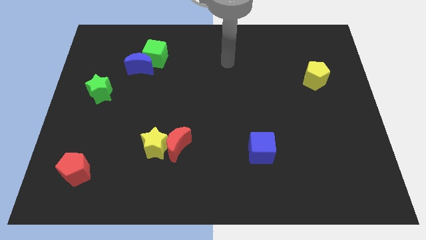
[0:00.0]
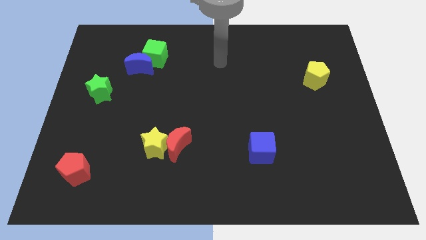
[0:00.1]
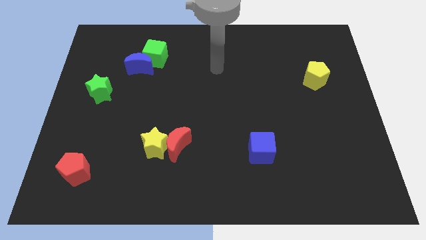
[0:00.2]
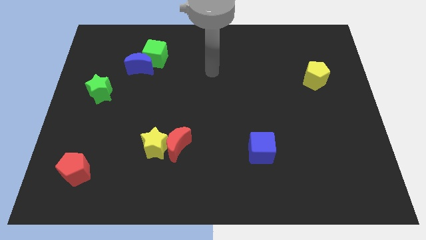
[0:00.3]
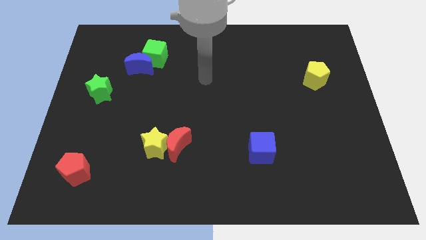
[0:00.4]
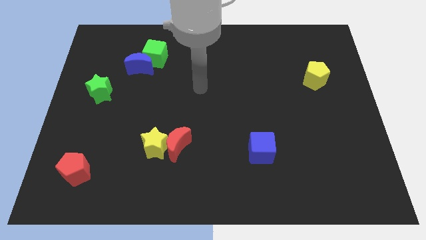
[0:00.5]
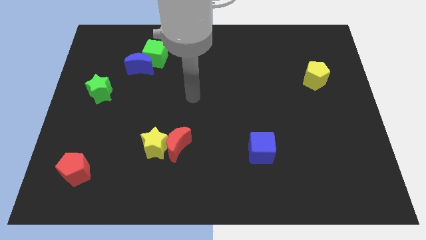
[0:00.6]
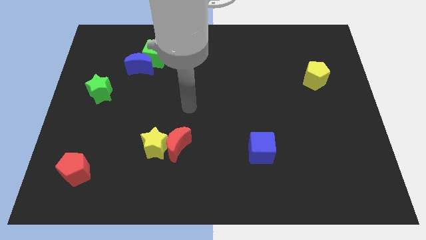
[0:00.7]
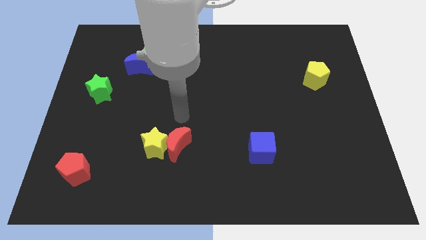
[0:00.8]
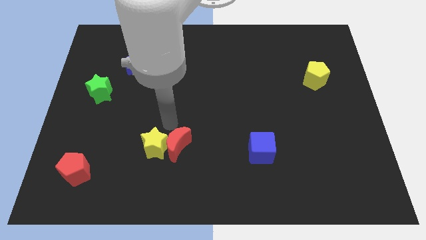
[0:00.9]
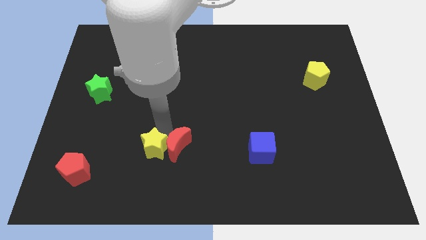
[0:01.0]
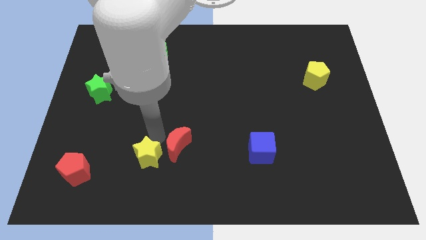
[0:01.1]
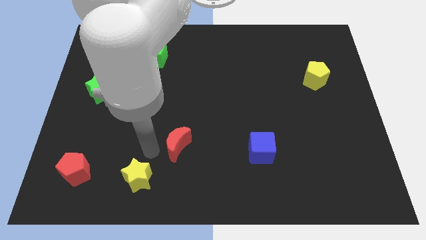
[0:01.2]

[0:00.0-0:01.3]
separate the red moon from the yellow star

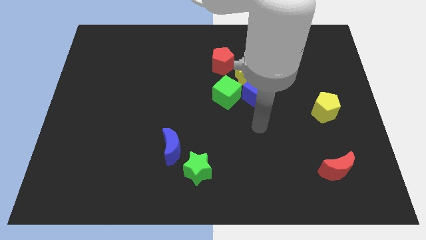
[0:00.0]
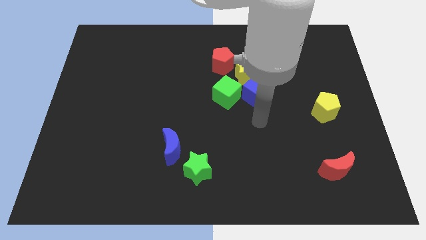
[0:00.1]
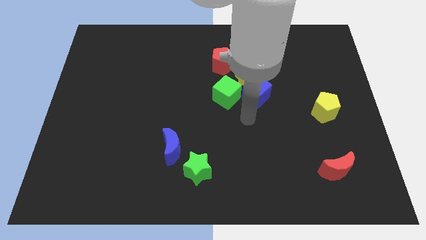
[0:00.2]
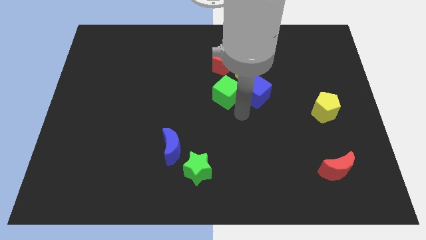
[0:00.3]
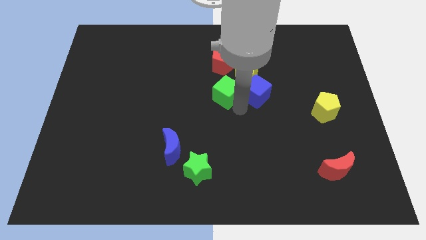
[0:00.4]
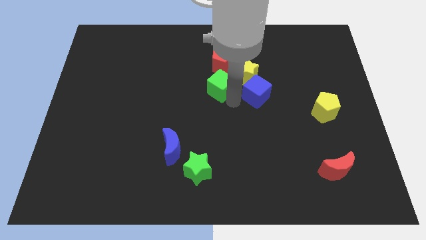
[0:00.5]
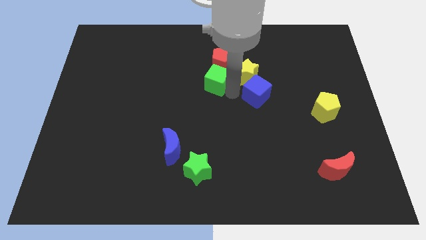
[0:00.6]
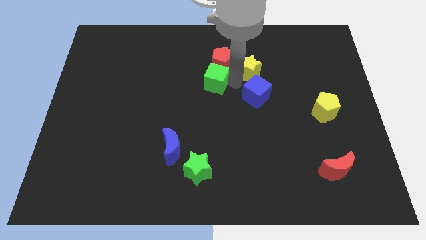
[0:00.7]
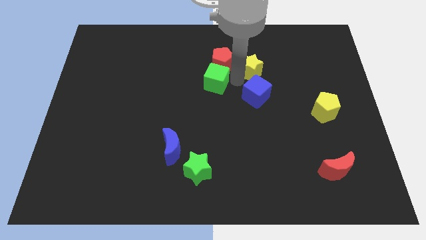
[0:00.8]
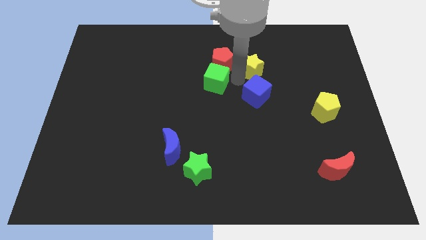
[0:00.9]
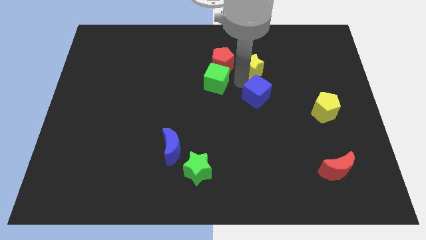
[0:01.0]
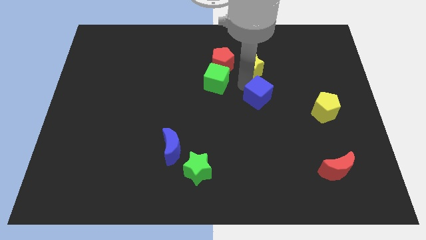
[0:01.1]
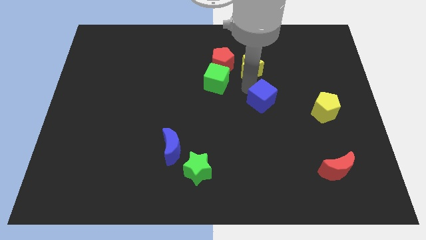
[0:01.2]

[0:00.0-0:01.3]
pull the blue cube apart from the yellow star and green cube

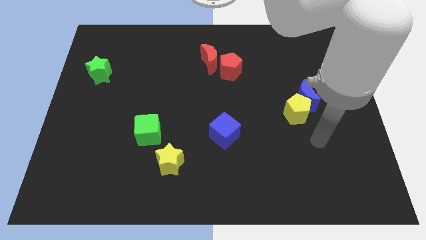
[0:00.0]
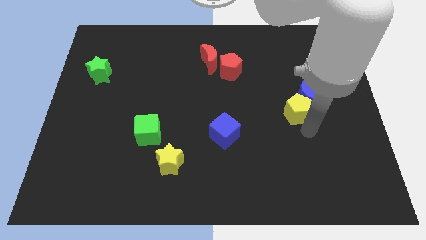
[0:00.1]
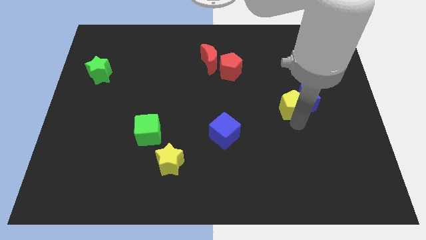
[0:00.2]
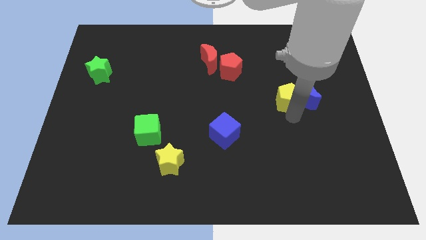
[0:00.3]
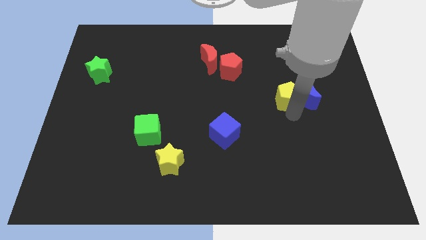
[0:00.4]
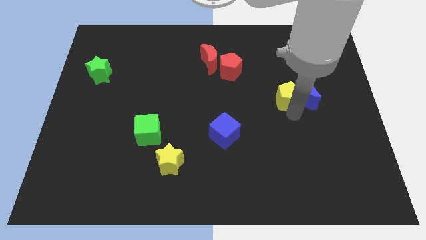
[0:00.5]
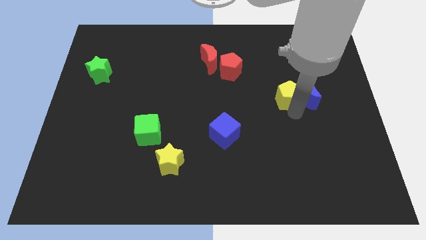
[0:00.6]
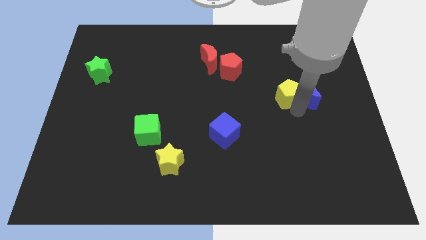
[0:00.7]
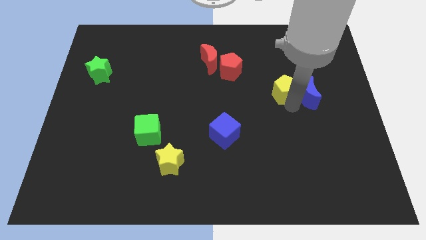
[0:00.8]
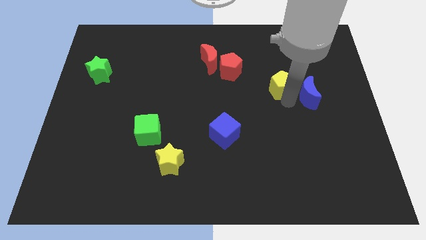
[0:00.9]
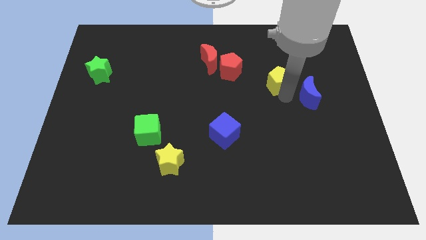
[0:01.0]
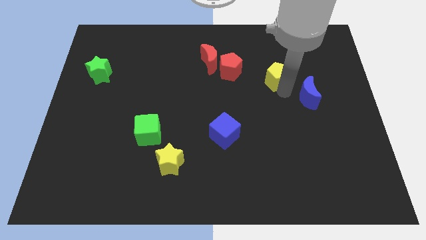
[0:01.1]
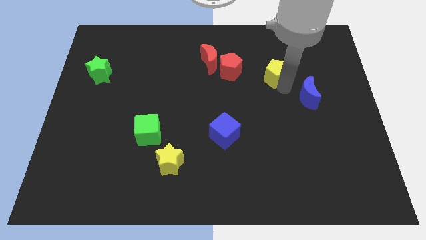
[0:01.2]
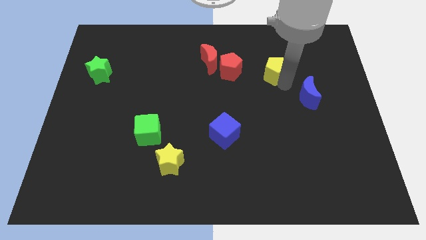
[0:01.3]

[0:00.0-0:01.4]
pull the blue moon apart from the yellow pentagon

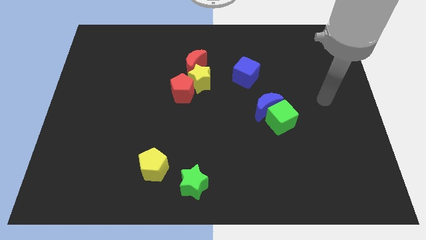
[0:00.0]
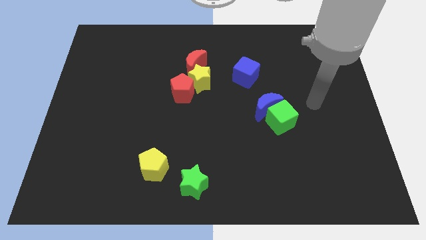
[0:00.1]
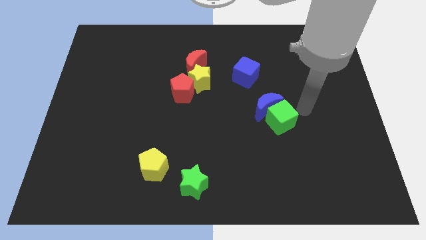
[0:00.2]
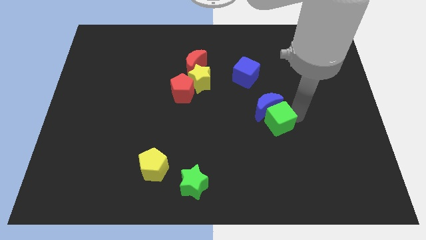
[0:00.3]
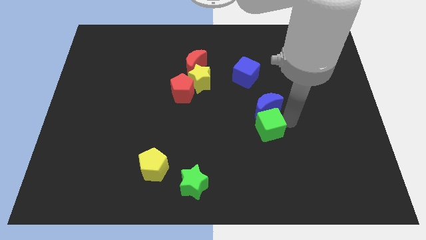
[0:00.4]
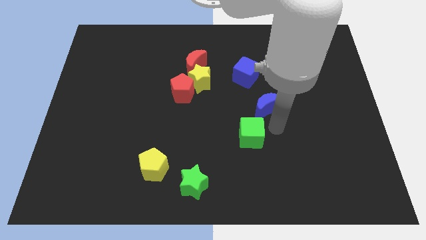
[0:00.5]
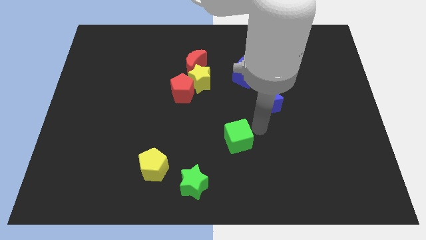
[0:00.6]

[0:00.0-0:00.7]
move the blue moon away from the green cube

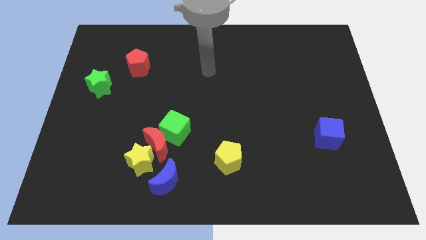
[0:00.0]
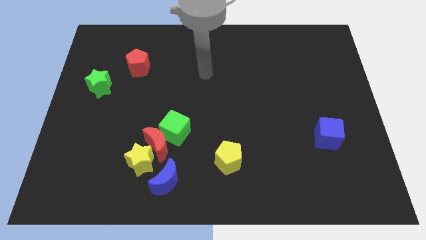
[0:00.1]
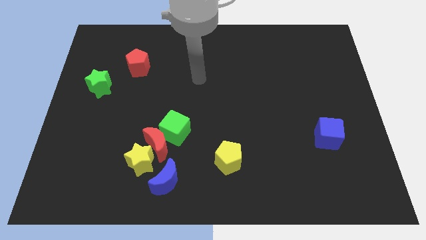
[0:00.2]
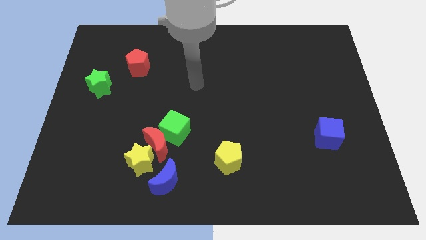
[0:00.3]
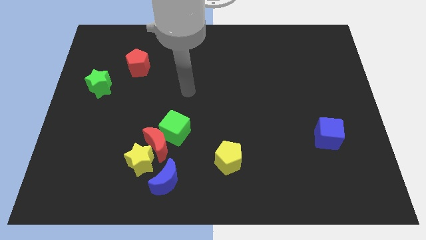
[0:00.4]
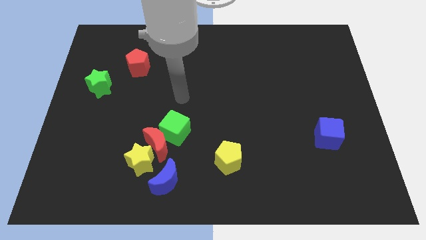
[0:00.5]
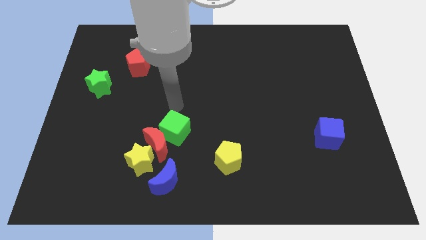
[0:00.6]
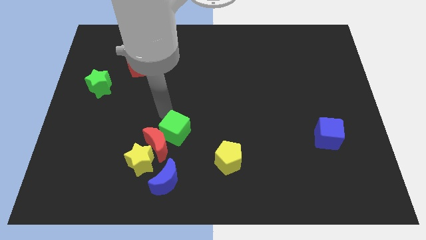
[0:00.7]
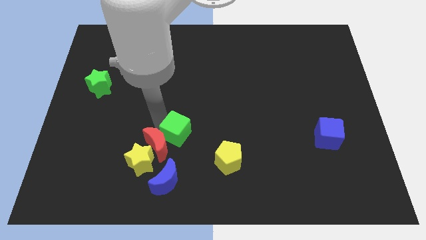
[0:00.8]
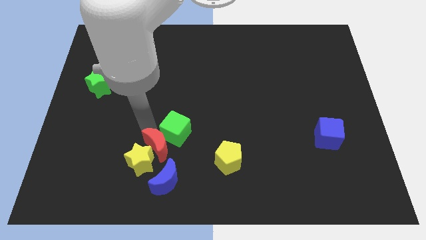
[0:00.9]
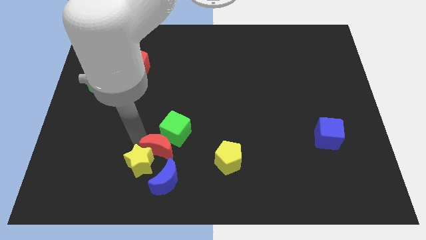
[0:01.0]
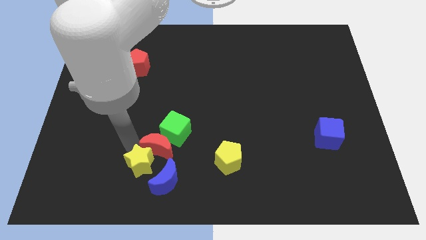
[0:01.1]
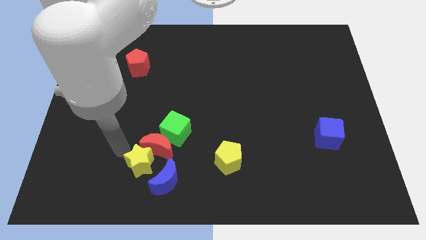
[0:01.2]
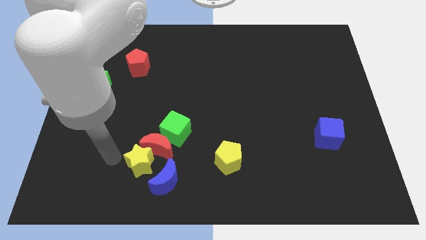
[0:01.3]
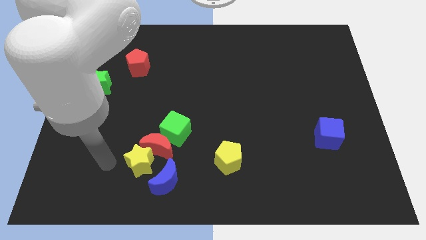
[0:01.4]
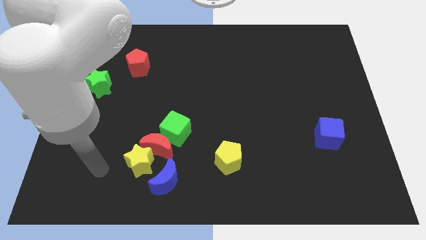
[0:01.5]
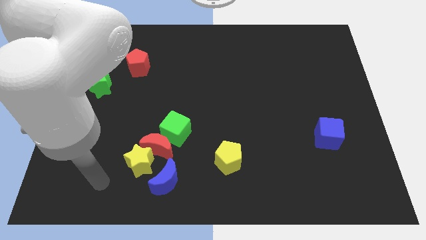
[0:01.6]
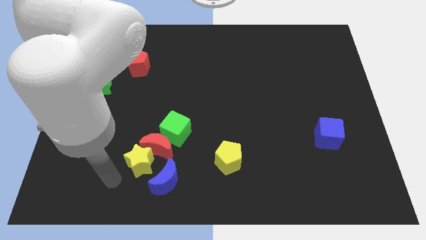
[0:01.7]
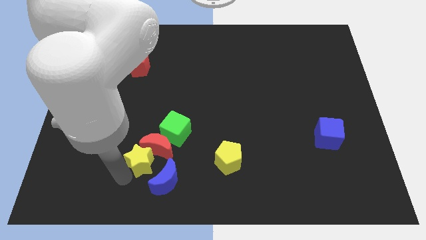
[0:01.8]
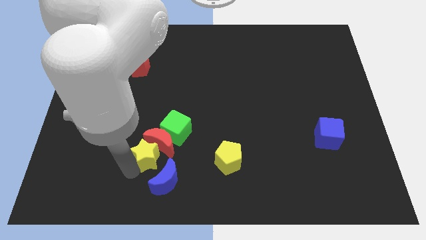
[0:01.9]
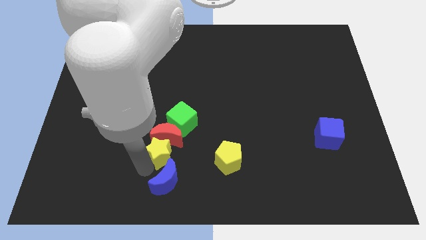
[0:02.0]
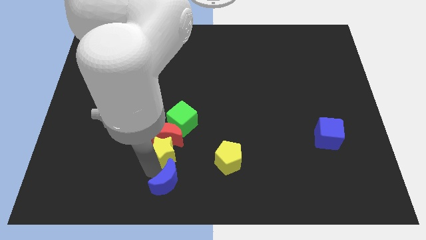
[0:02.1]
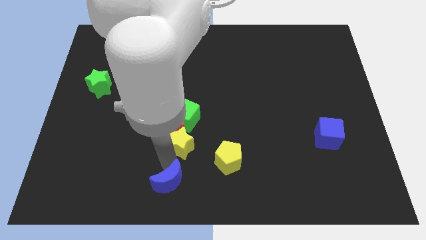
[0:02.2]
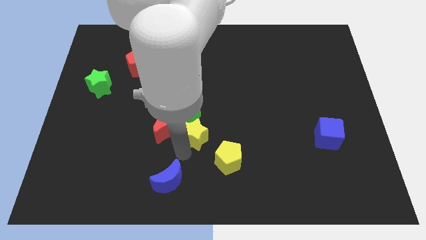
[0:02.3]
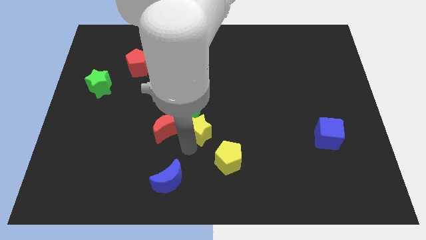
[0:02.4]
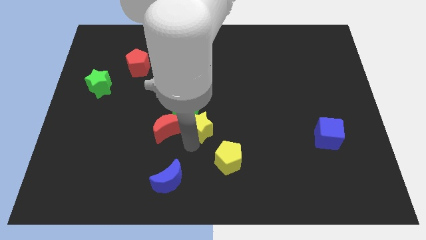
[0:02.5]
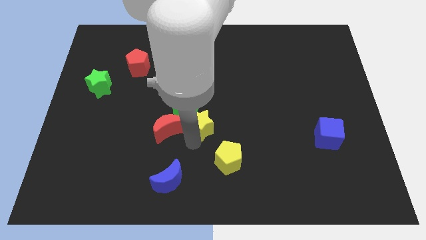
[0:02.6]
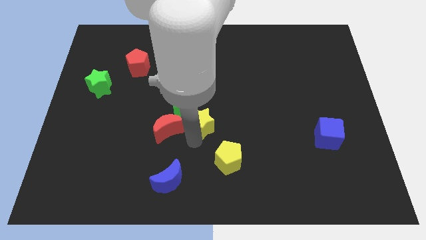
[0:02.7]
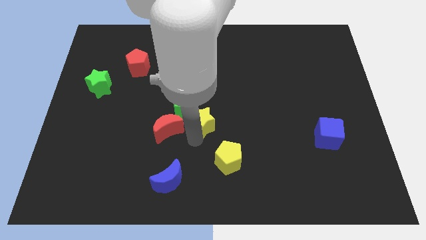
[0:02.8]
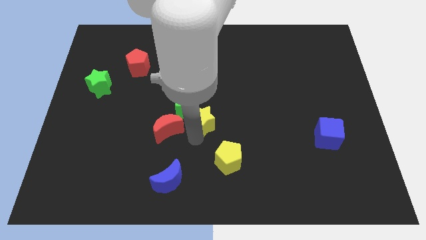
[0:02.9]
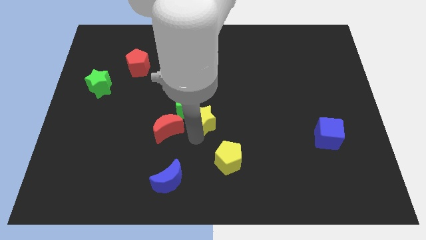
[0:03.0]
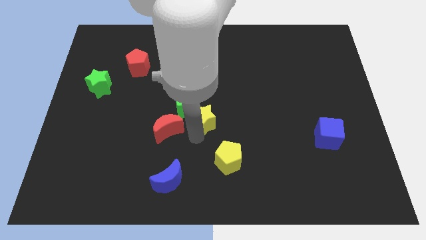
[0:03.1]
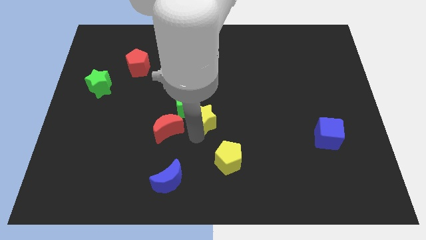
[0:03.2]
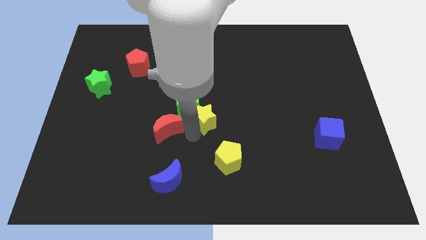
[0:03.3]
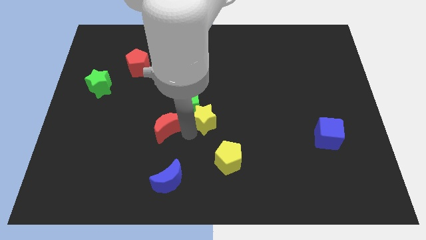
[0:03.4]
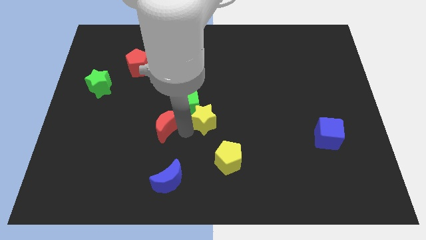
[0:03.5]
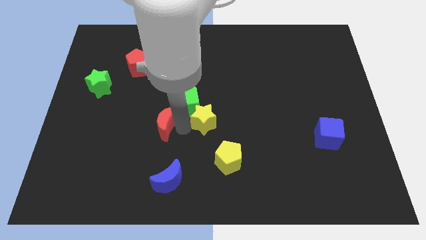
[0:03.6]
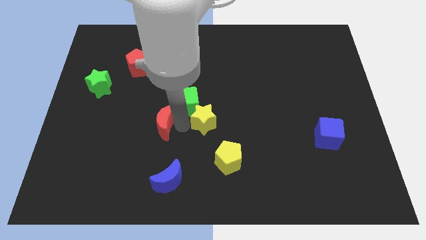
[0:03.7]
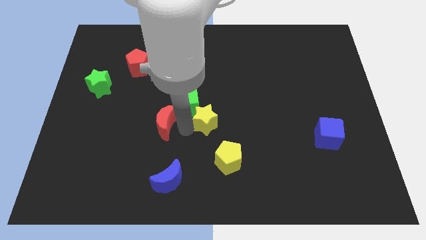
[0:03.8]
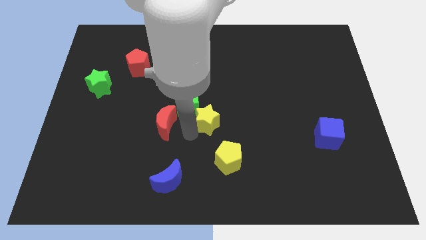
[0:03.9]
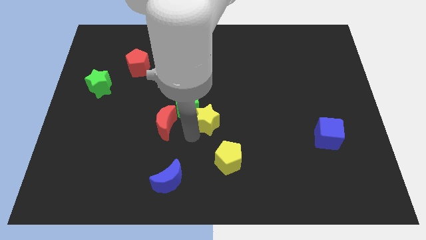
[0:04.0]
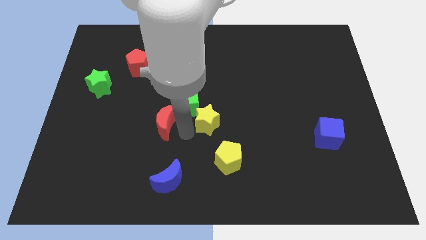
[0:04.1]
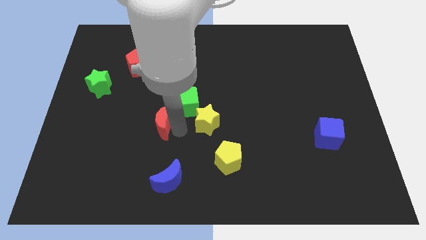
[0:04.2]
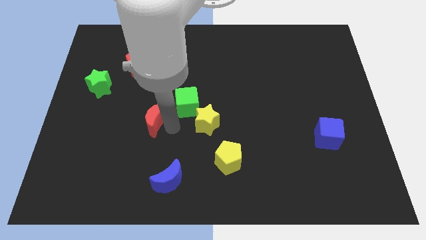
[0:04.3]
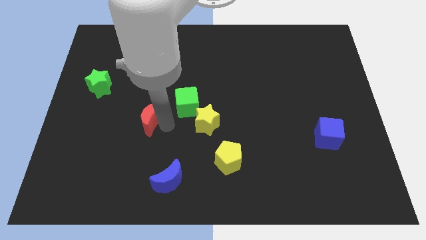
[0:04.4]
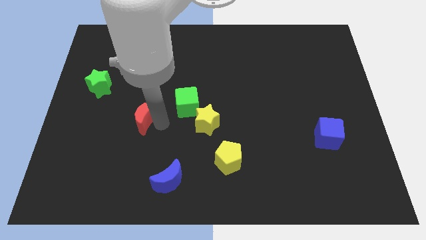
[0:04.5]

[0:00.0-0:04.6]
move the red moon away from the yellow star, green cube, and blue moon
